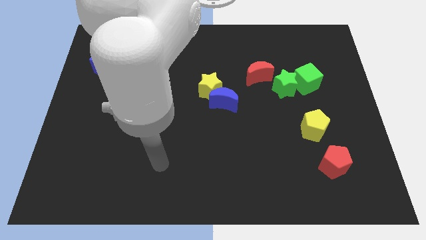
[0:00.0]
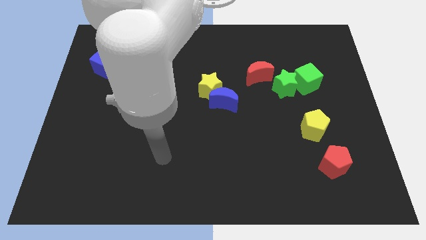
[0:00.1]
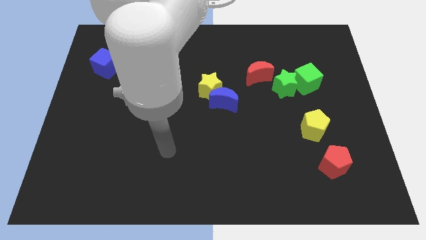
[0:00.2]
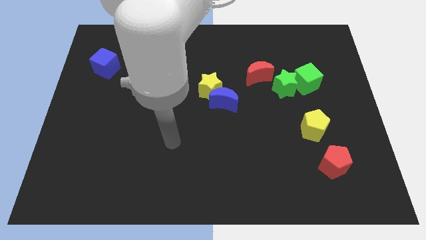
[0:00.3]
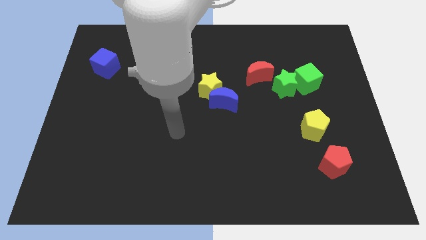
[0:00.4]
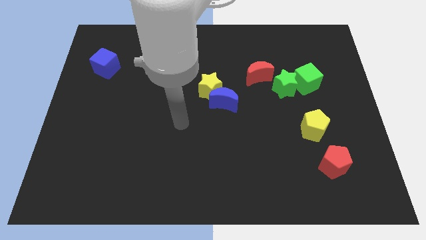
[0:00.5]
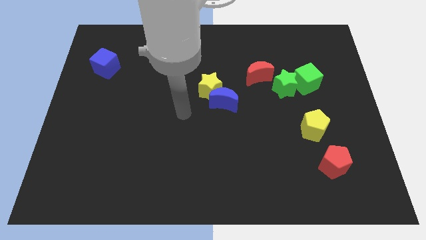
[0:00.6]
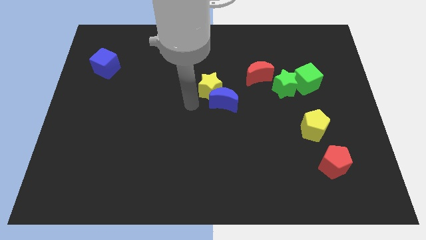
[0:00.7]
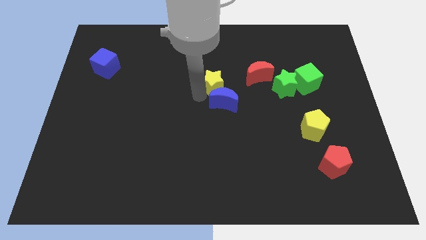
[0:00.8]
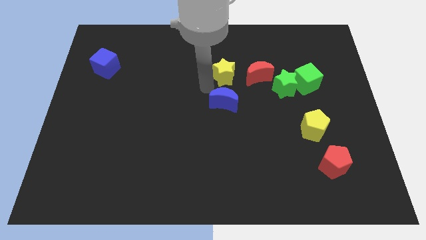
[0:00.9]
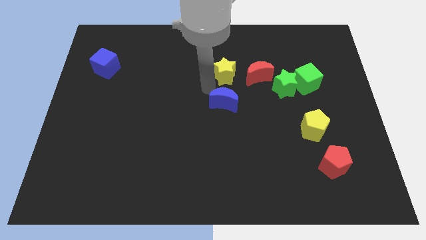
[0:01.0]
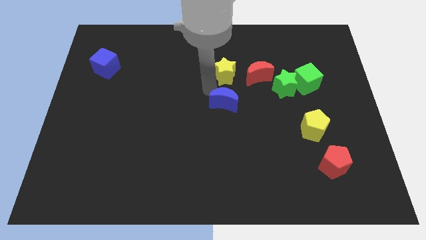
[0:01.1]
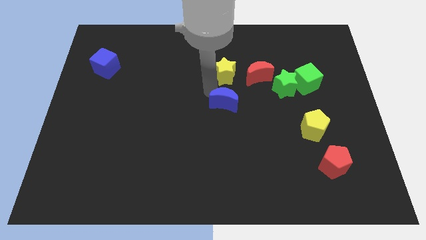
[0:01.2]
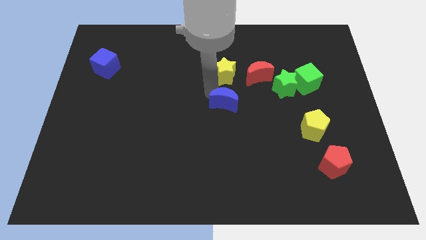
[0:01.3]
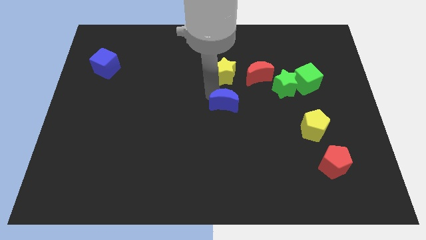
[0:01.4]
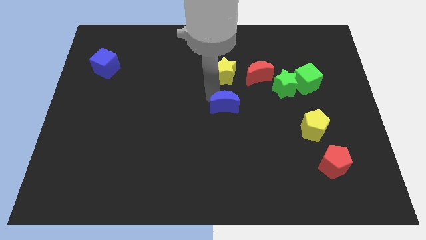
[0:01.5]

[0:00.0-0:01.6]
separate the blue moon from the yellow star

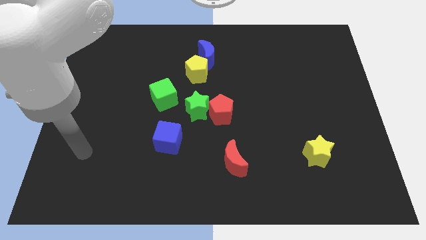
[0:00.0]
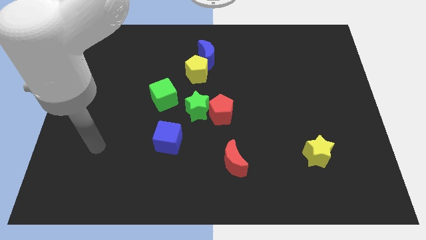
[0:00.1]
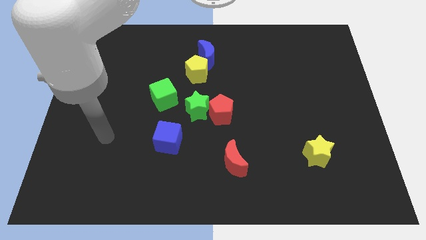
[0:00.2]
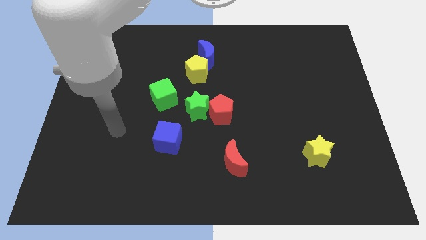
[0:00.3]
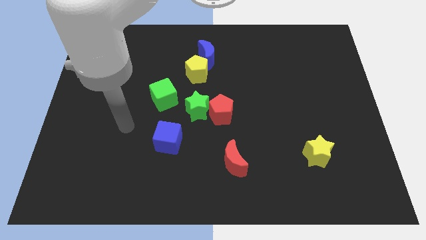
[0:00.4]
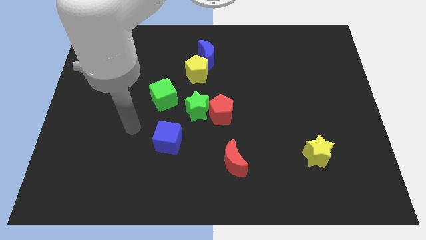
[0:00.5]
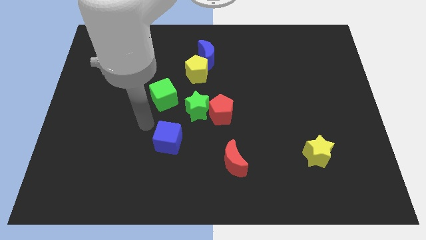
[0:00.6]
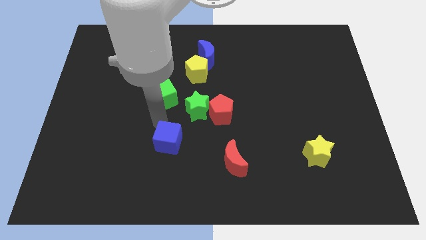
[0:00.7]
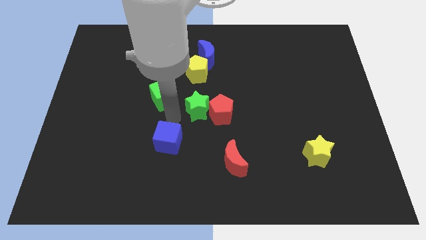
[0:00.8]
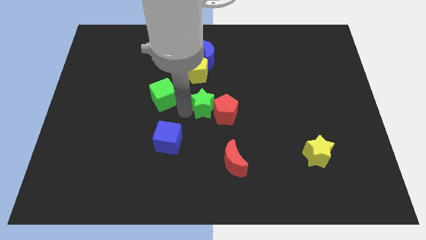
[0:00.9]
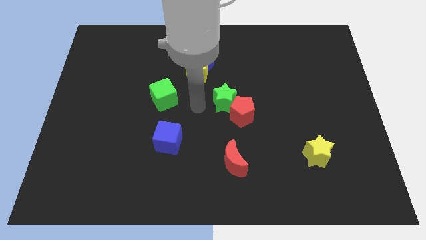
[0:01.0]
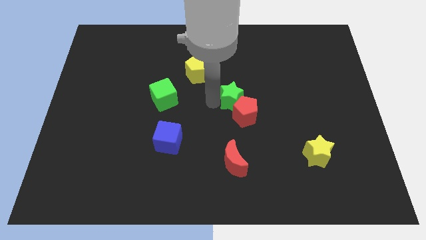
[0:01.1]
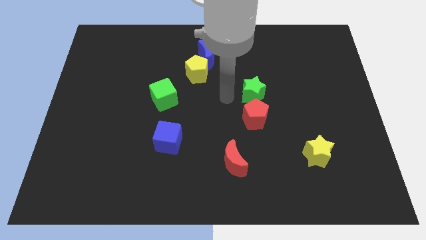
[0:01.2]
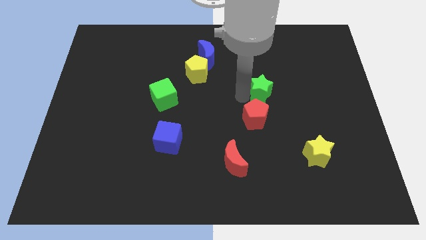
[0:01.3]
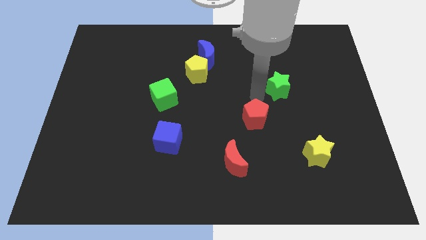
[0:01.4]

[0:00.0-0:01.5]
pull the red pentagon apart from the green star

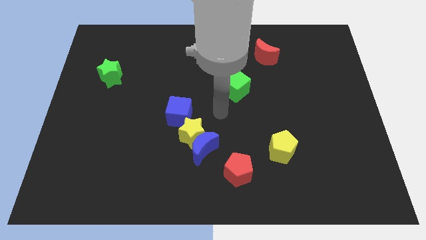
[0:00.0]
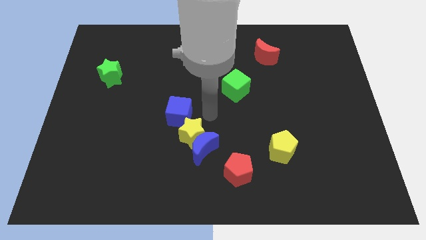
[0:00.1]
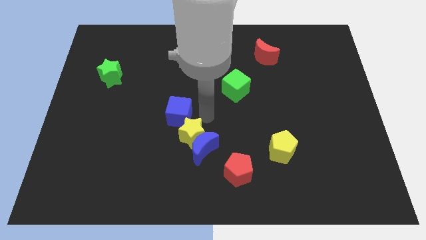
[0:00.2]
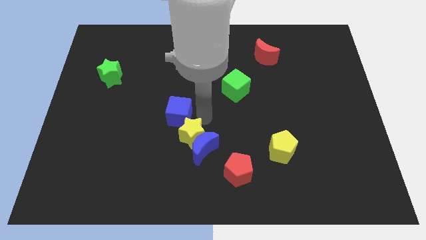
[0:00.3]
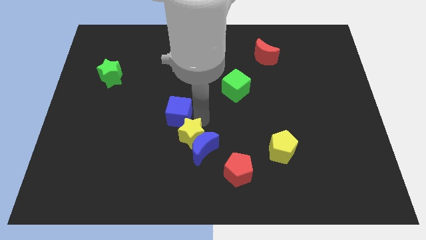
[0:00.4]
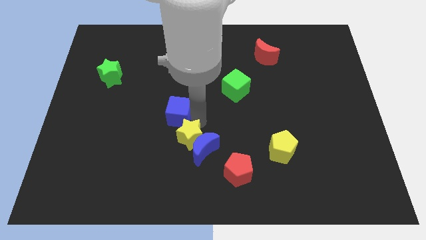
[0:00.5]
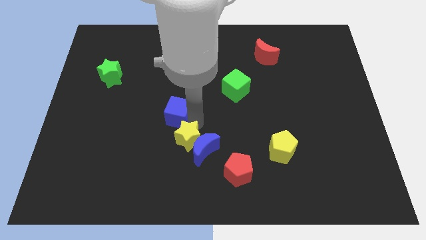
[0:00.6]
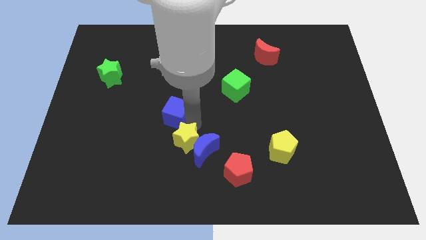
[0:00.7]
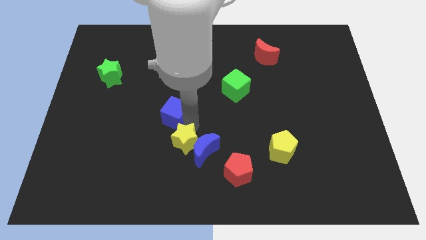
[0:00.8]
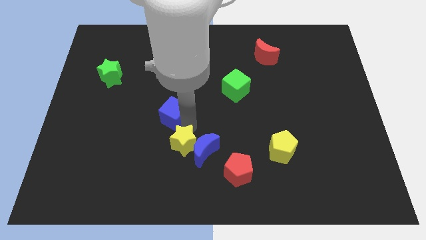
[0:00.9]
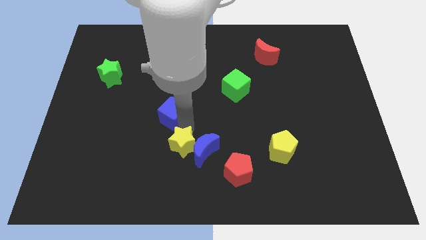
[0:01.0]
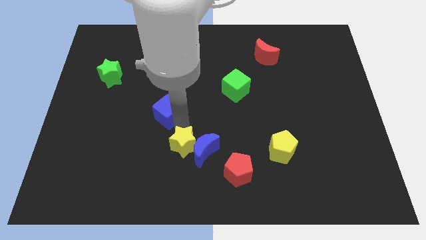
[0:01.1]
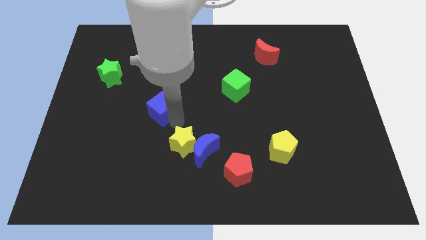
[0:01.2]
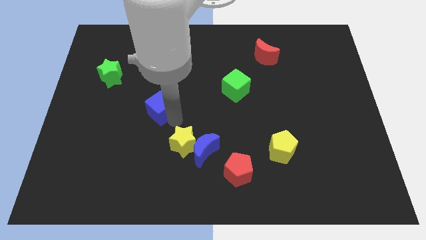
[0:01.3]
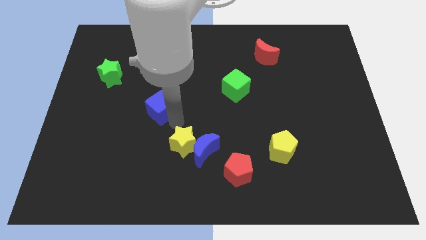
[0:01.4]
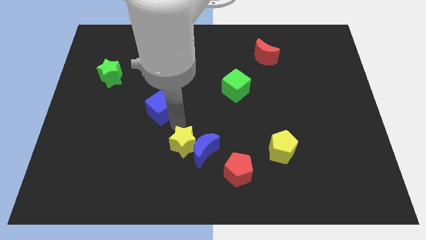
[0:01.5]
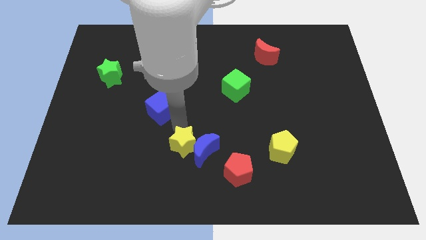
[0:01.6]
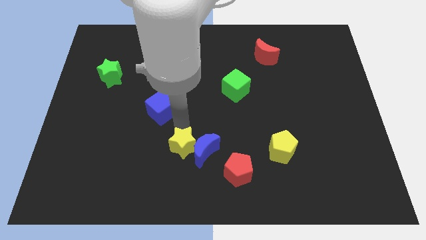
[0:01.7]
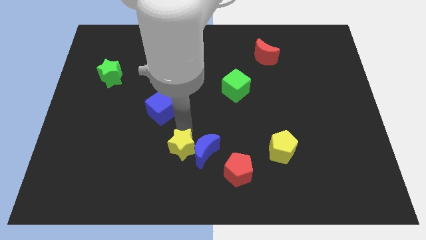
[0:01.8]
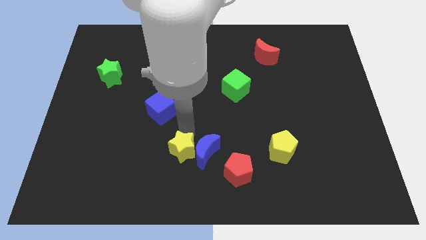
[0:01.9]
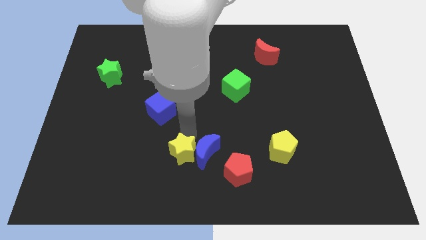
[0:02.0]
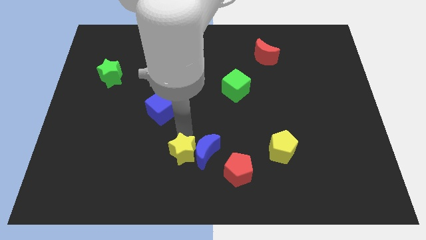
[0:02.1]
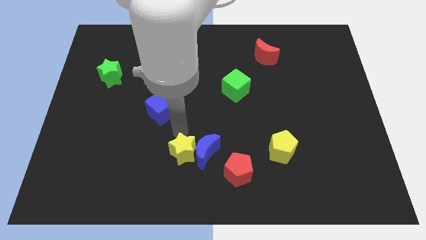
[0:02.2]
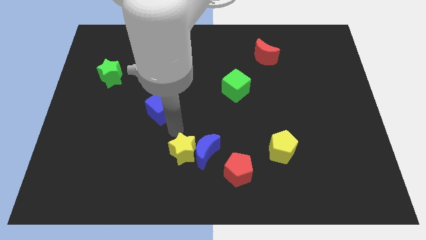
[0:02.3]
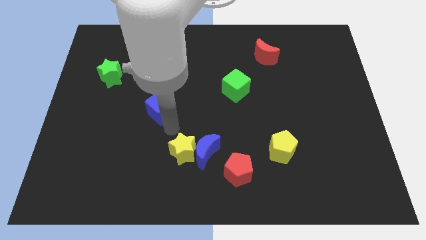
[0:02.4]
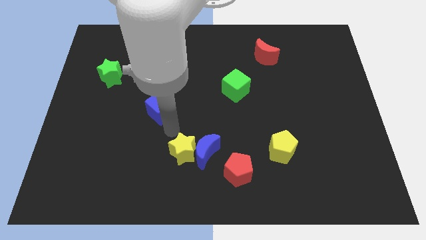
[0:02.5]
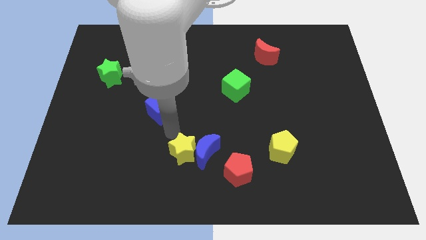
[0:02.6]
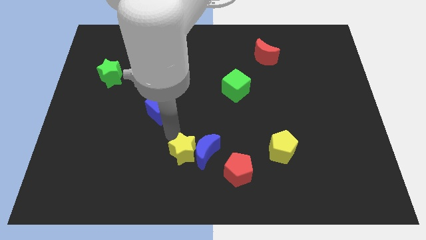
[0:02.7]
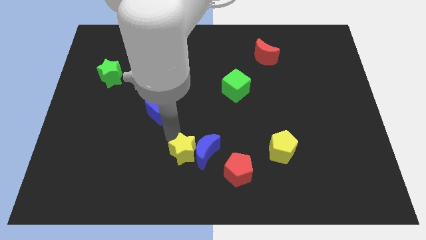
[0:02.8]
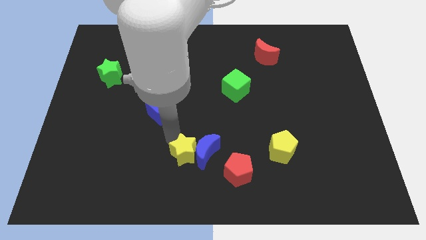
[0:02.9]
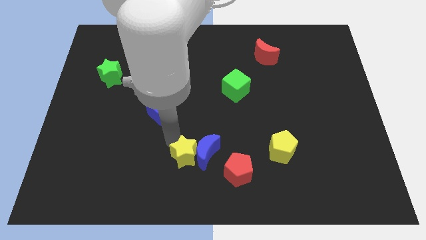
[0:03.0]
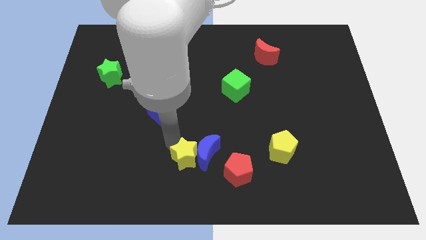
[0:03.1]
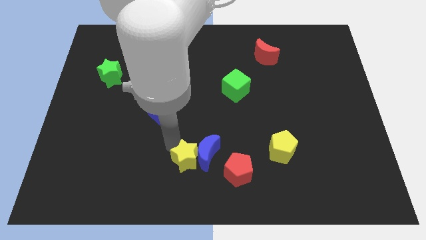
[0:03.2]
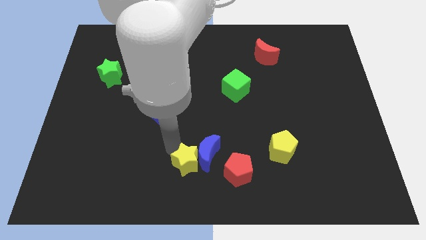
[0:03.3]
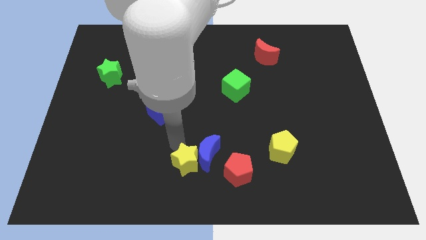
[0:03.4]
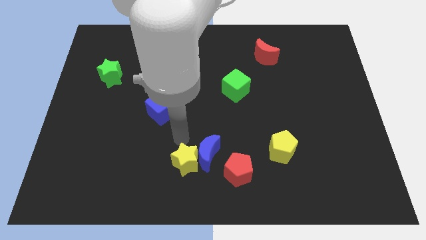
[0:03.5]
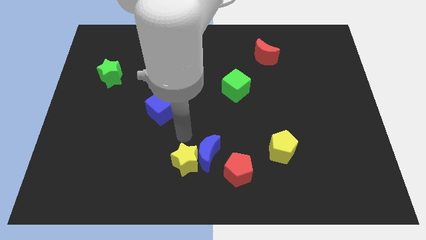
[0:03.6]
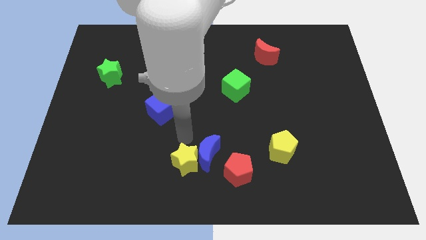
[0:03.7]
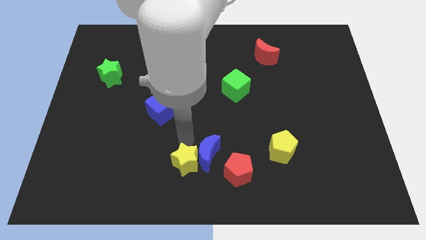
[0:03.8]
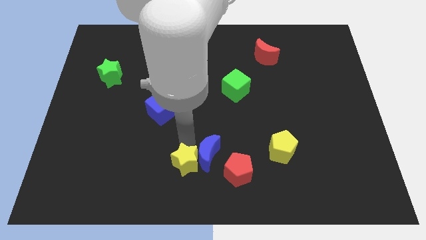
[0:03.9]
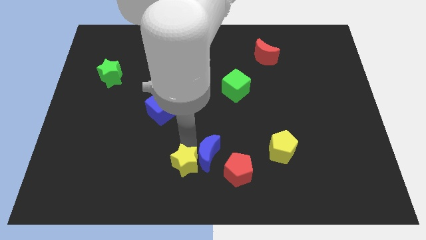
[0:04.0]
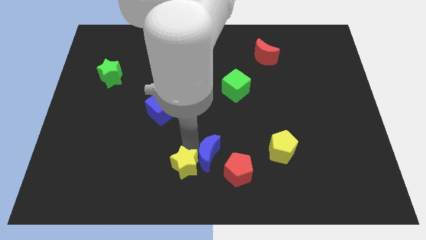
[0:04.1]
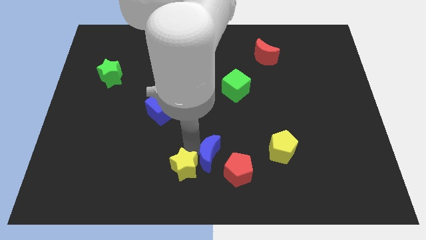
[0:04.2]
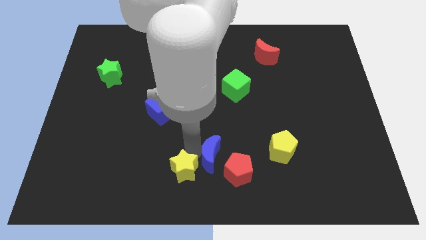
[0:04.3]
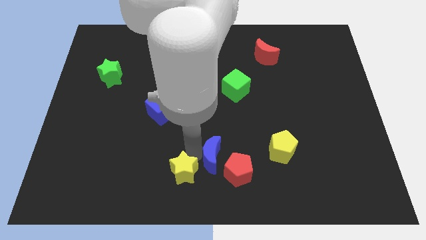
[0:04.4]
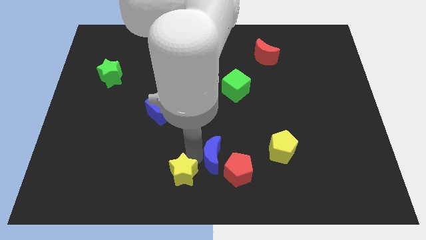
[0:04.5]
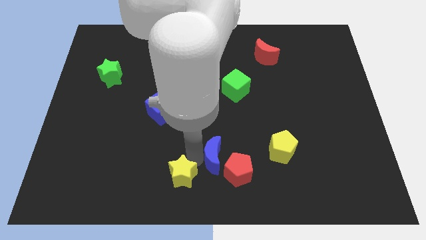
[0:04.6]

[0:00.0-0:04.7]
pull the yellow star apart from the blue moon and blue cube

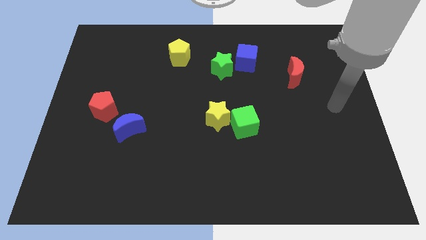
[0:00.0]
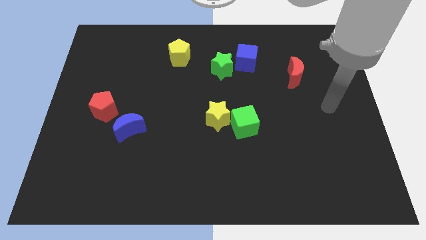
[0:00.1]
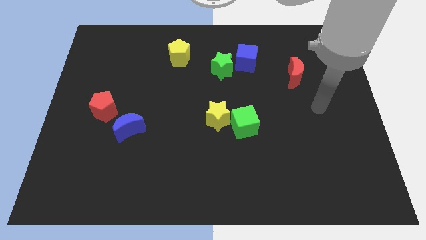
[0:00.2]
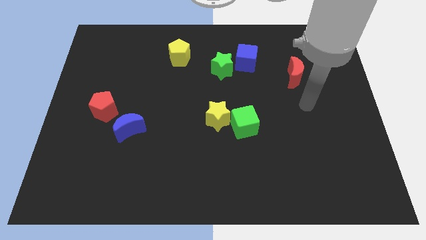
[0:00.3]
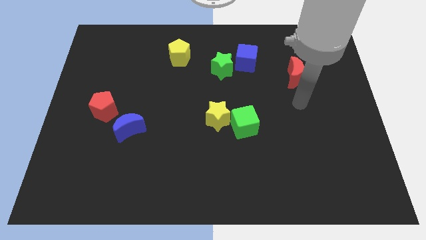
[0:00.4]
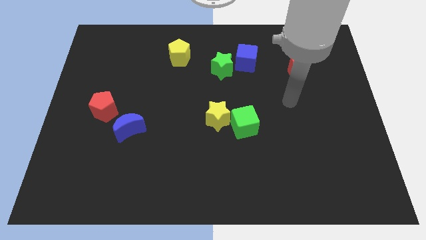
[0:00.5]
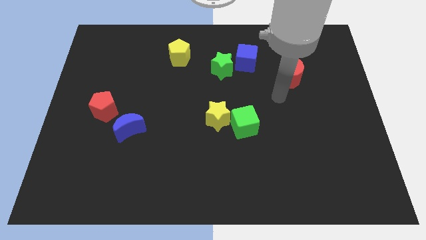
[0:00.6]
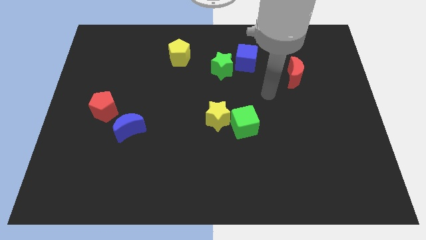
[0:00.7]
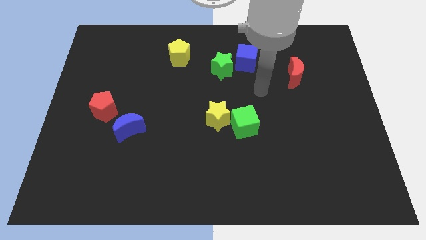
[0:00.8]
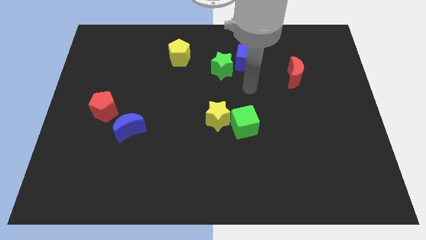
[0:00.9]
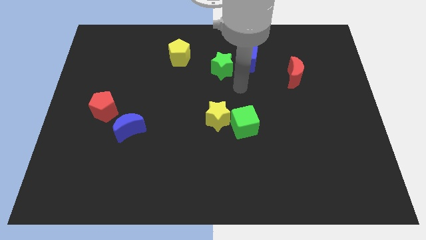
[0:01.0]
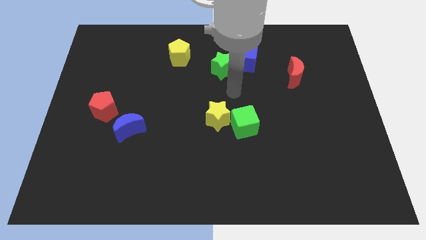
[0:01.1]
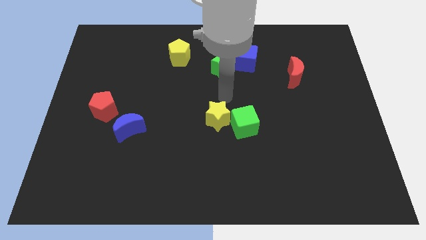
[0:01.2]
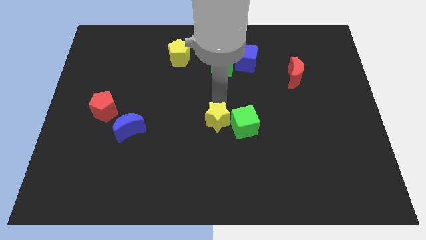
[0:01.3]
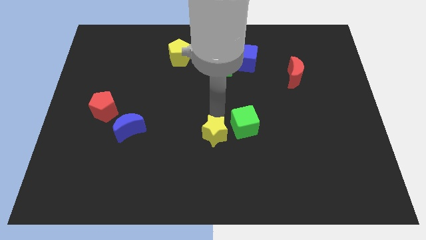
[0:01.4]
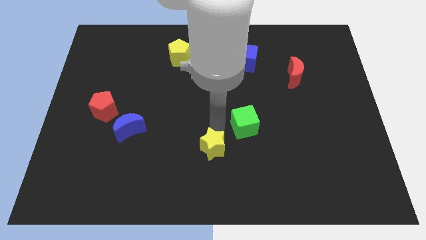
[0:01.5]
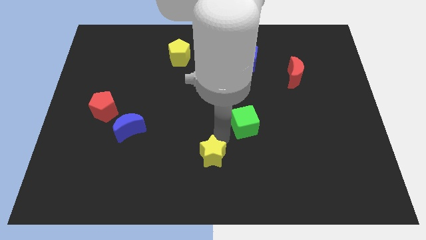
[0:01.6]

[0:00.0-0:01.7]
move the green cube away from the yellow star
